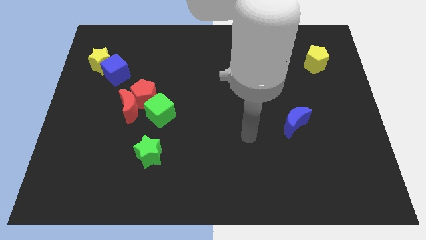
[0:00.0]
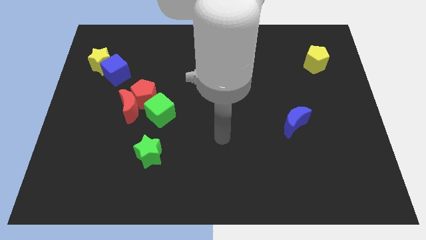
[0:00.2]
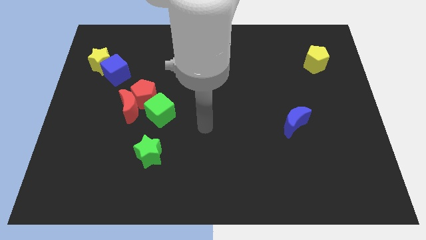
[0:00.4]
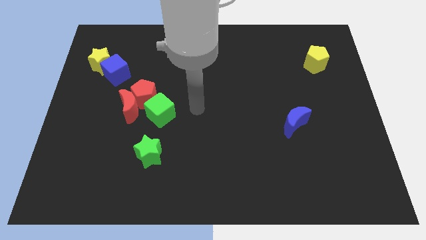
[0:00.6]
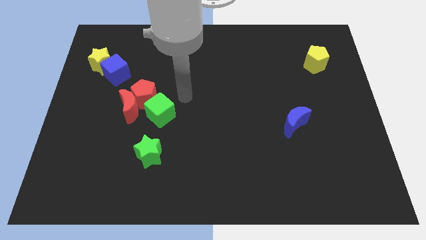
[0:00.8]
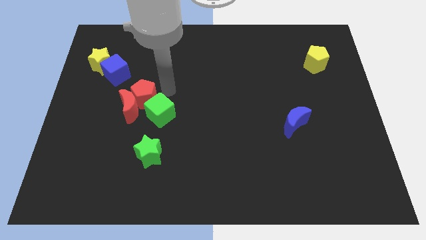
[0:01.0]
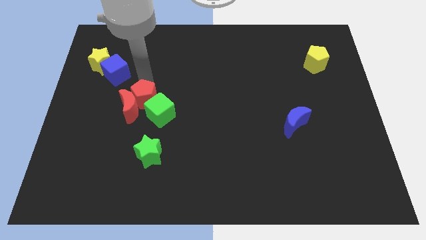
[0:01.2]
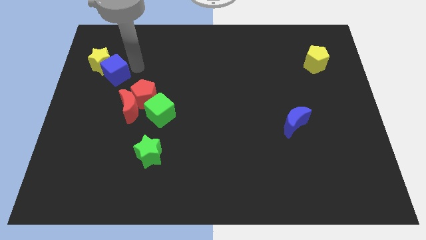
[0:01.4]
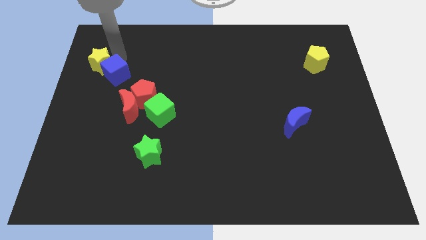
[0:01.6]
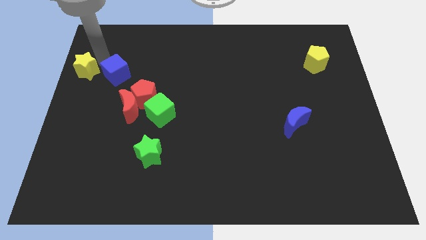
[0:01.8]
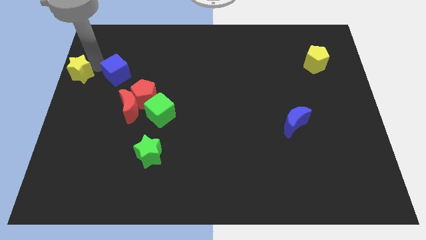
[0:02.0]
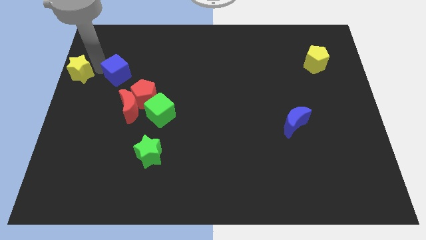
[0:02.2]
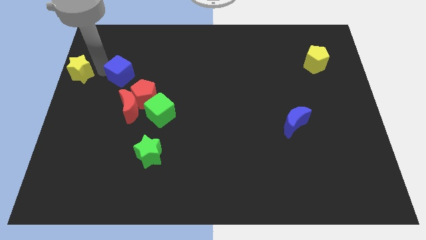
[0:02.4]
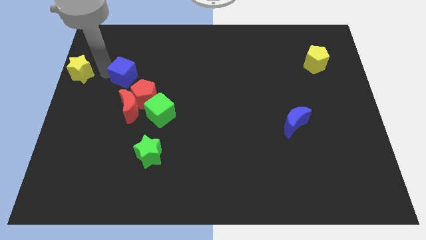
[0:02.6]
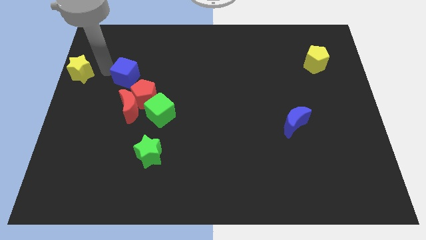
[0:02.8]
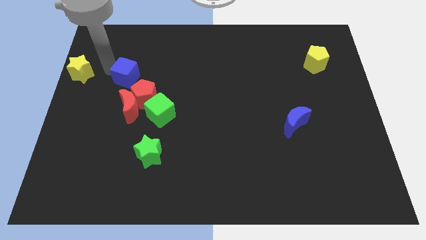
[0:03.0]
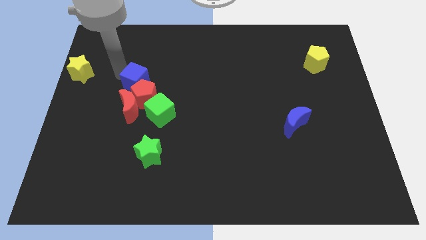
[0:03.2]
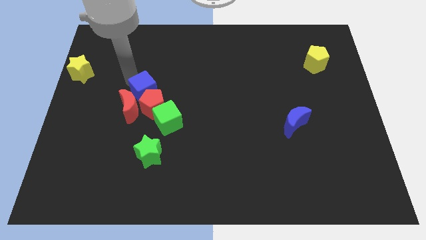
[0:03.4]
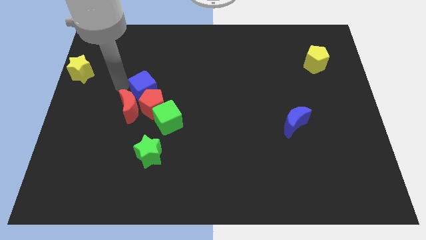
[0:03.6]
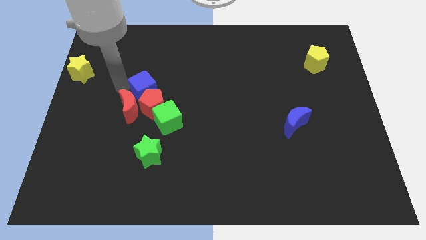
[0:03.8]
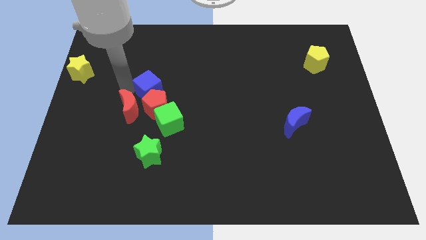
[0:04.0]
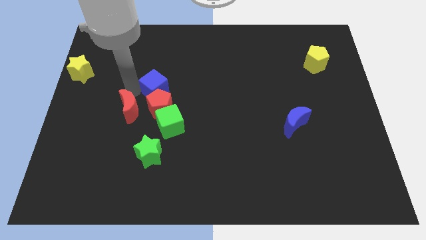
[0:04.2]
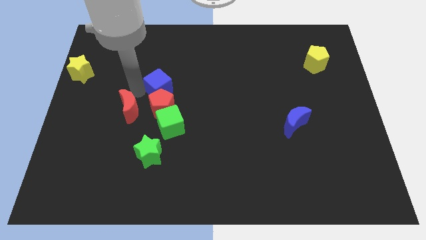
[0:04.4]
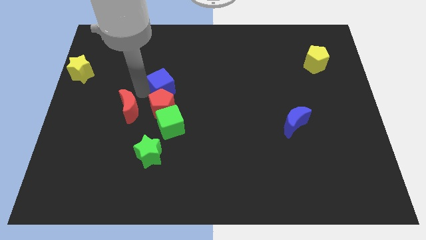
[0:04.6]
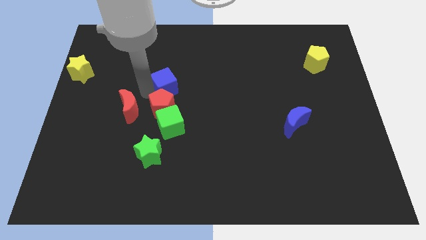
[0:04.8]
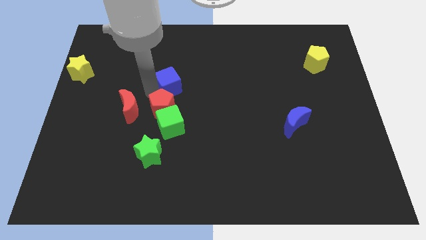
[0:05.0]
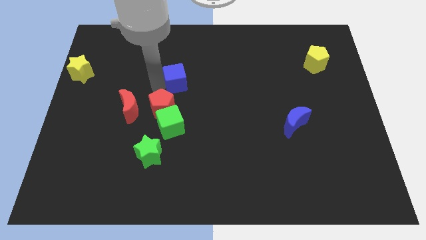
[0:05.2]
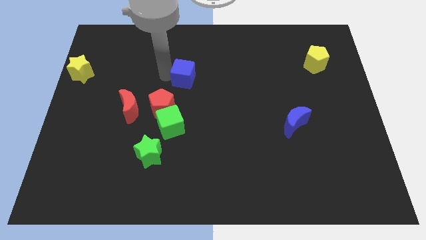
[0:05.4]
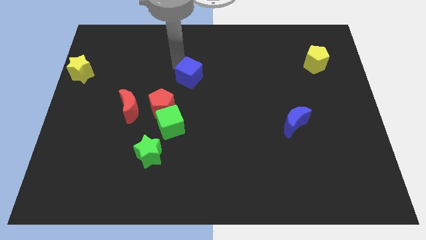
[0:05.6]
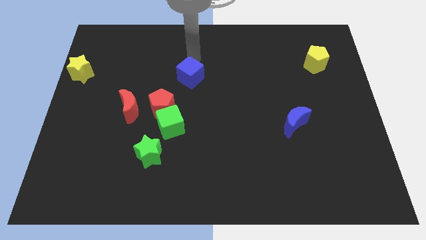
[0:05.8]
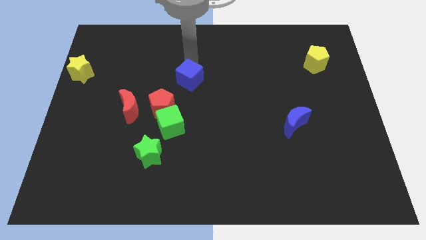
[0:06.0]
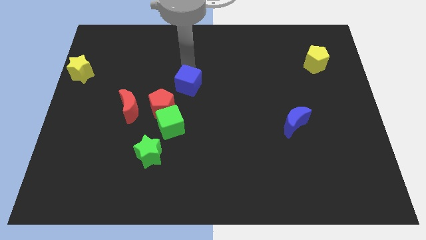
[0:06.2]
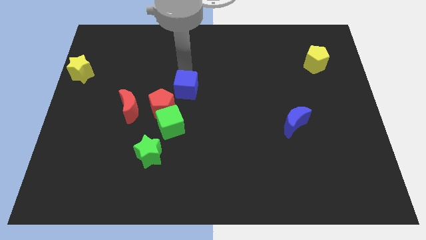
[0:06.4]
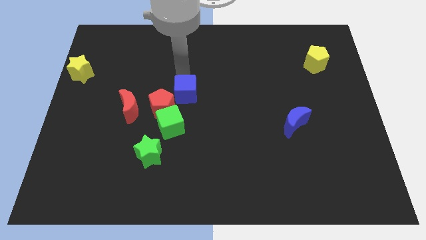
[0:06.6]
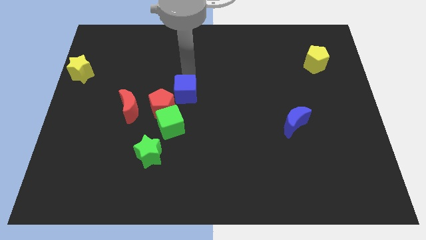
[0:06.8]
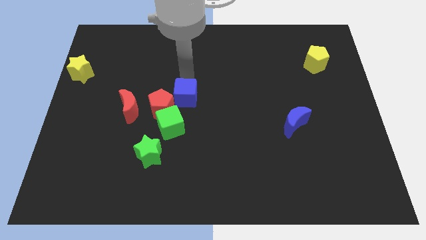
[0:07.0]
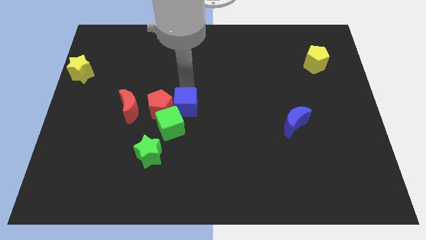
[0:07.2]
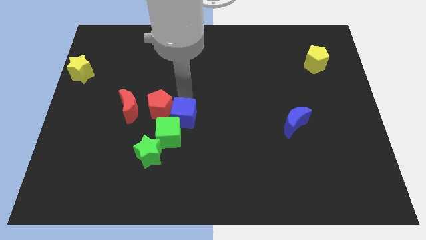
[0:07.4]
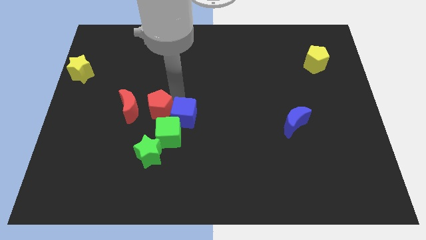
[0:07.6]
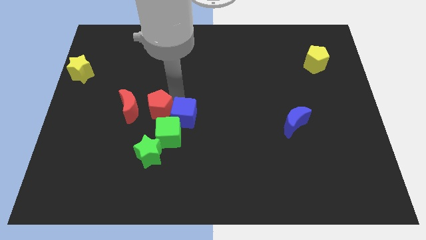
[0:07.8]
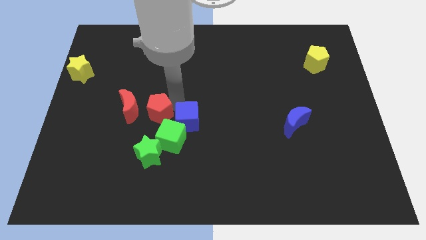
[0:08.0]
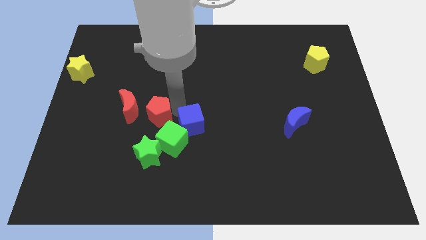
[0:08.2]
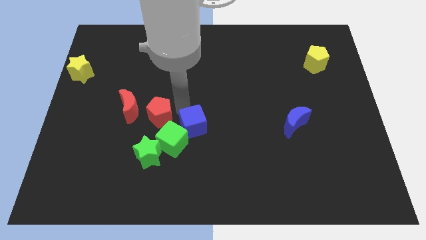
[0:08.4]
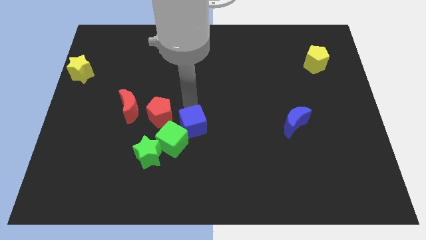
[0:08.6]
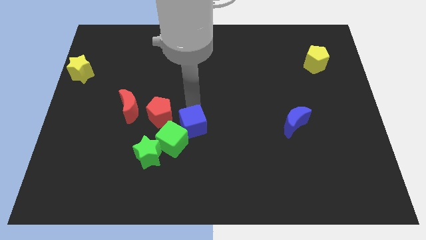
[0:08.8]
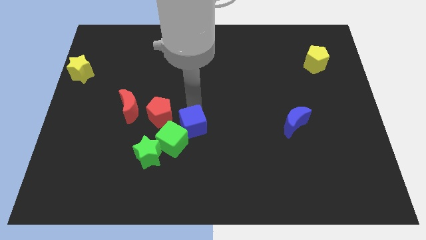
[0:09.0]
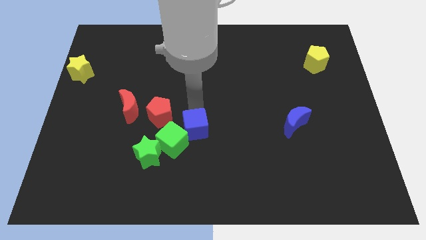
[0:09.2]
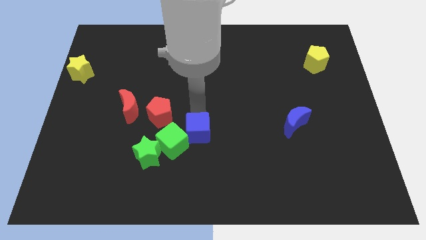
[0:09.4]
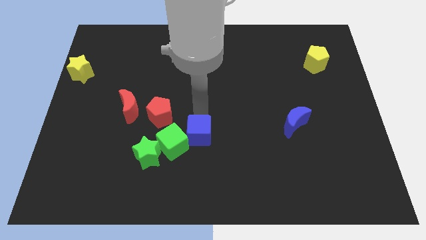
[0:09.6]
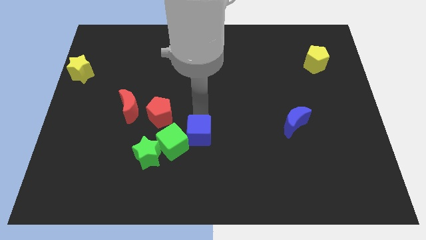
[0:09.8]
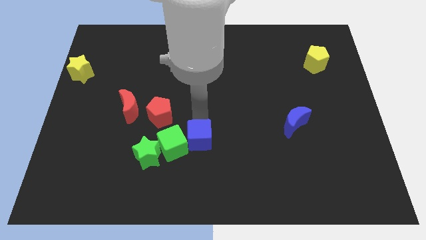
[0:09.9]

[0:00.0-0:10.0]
slide the blue cube to the right of the green star

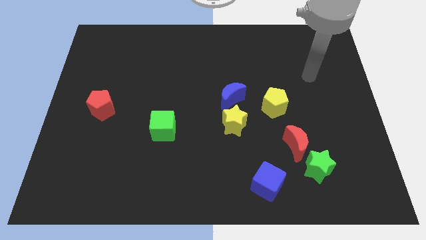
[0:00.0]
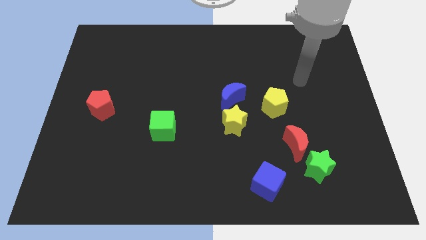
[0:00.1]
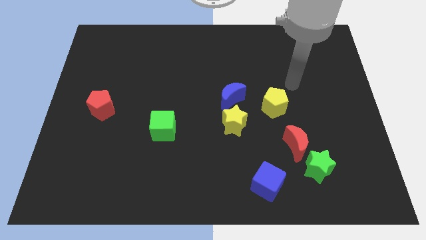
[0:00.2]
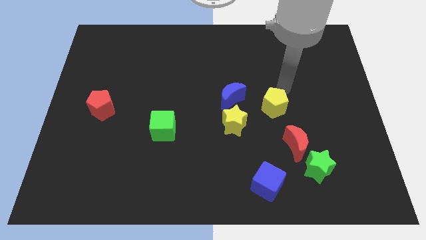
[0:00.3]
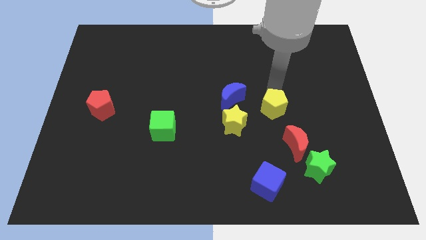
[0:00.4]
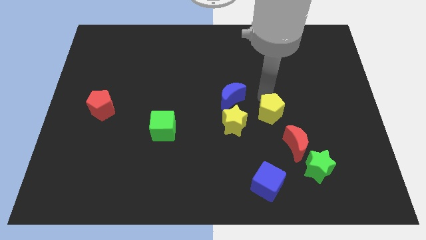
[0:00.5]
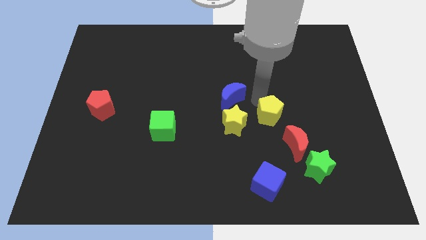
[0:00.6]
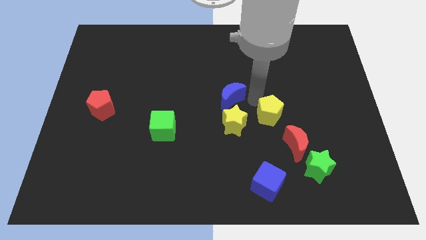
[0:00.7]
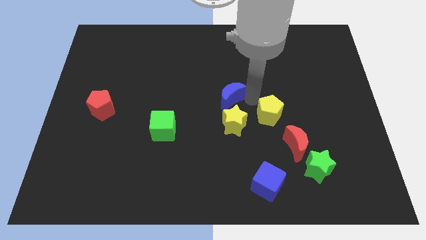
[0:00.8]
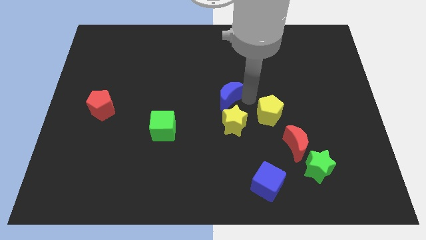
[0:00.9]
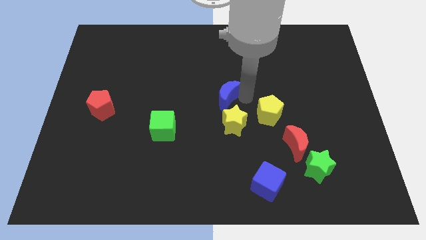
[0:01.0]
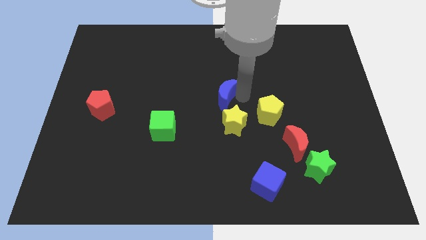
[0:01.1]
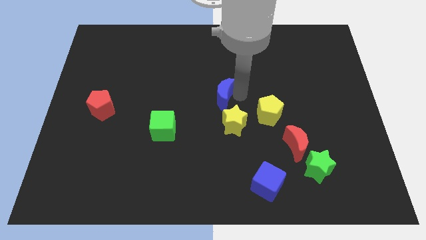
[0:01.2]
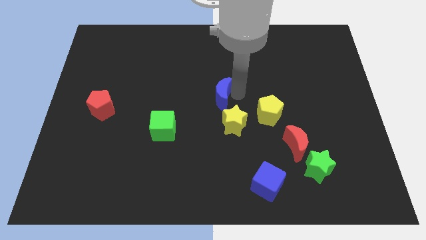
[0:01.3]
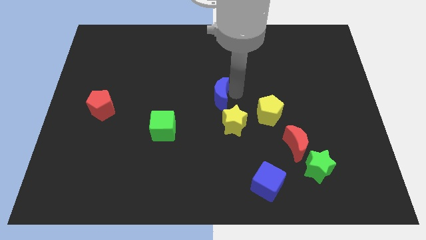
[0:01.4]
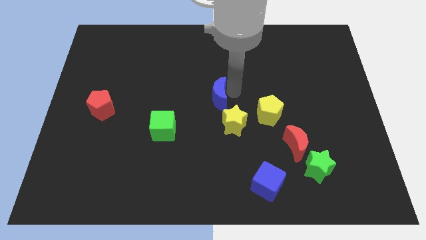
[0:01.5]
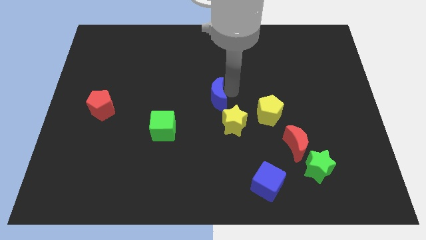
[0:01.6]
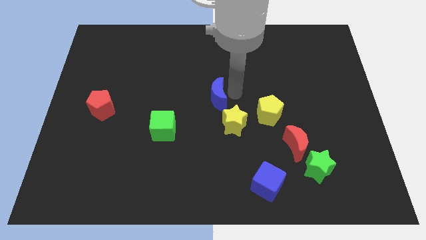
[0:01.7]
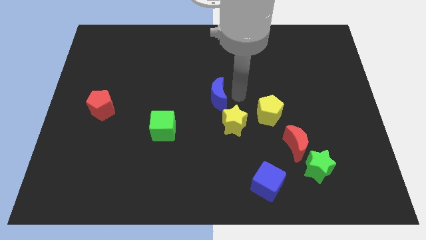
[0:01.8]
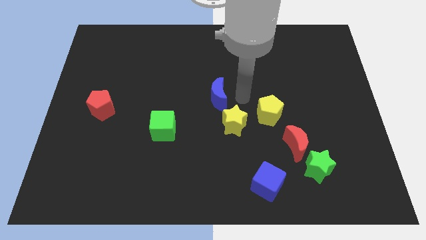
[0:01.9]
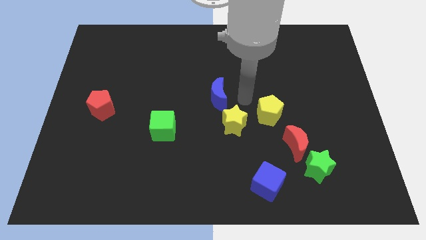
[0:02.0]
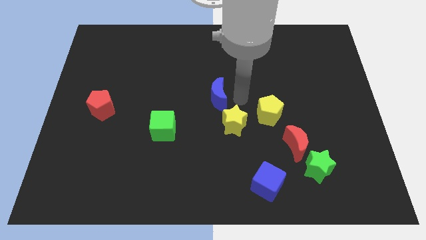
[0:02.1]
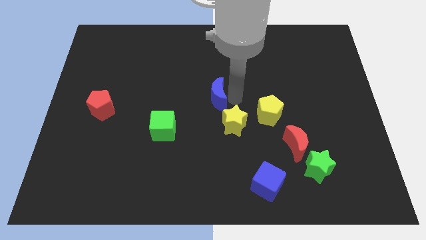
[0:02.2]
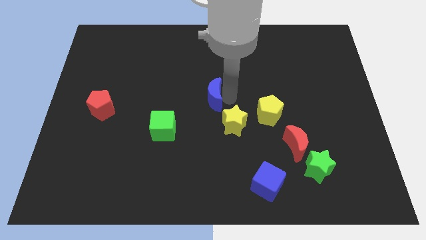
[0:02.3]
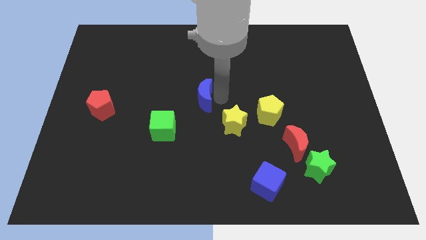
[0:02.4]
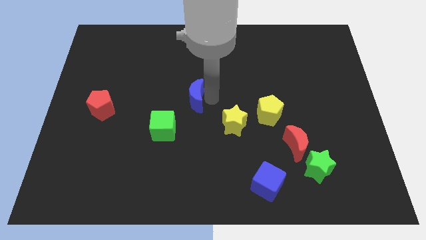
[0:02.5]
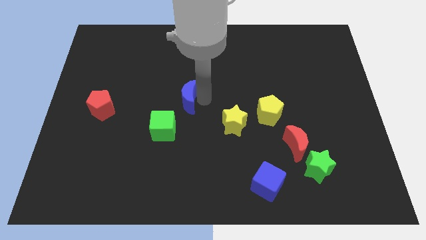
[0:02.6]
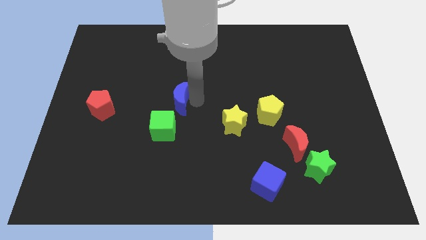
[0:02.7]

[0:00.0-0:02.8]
slide the blue moon above the green cube

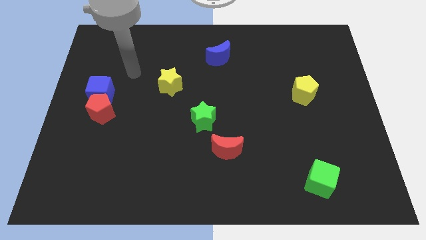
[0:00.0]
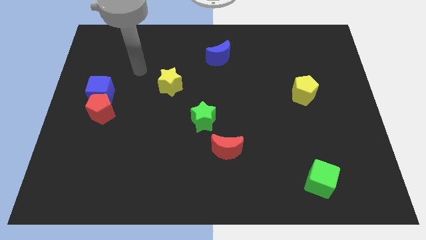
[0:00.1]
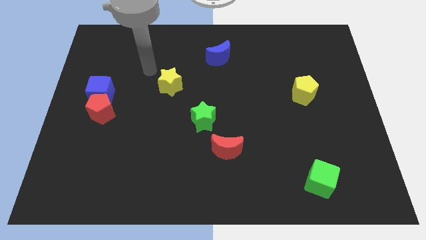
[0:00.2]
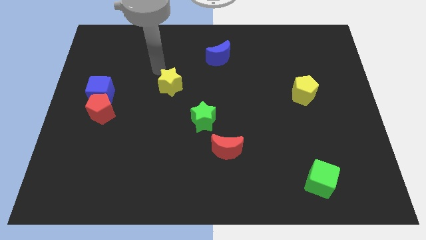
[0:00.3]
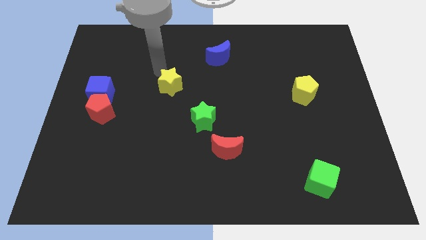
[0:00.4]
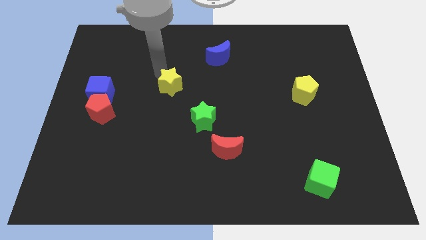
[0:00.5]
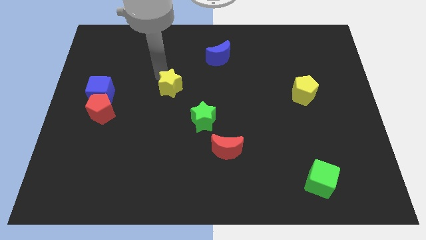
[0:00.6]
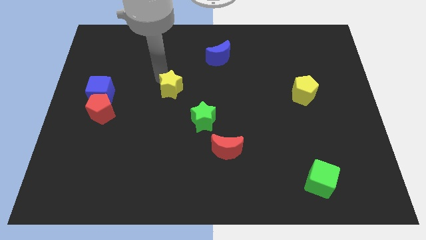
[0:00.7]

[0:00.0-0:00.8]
slide the yellow star diagonally up and to the left of the green star
